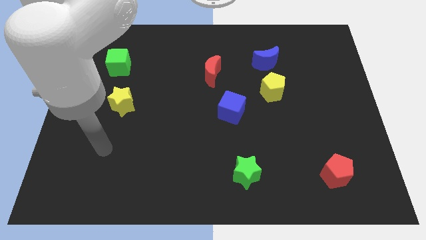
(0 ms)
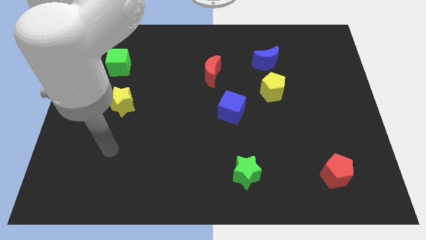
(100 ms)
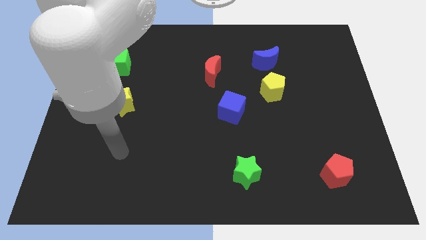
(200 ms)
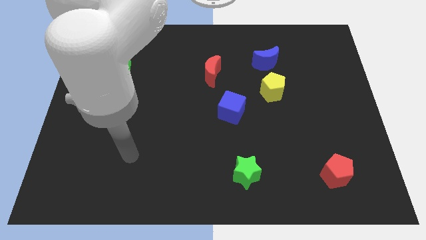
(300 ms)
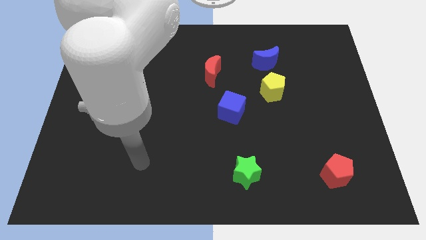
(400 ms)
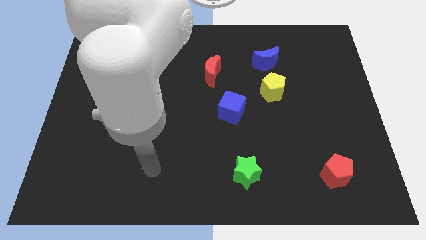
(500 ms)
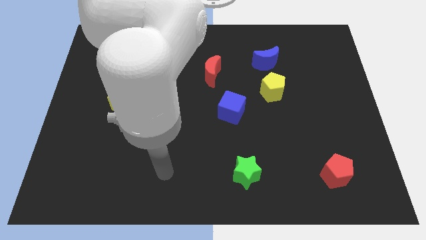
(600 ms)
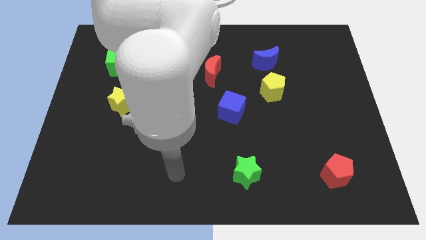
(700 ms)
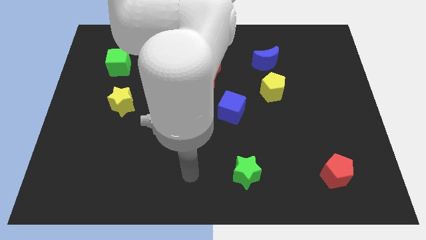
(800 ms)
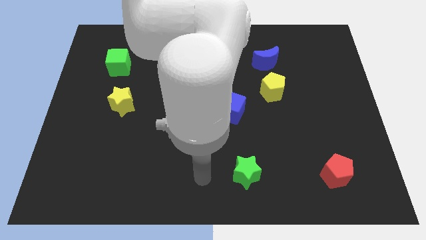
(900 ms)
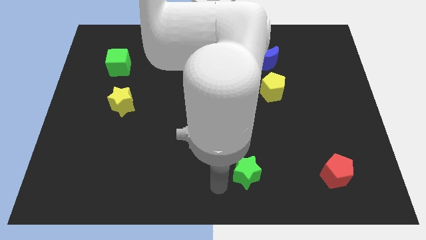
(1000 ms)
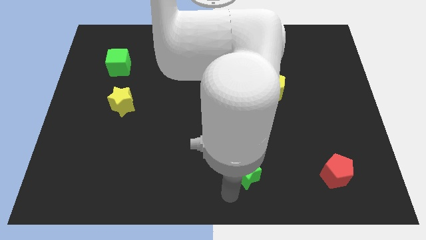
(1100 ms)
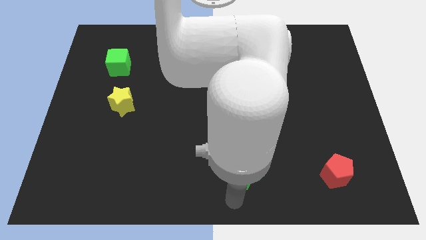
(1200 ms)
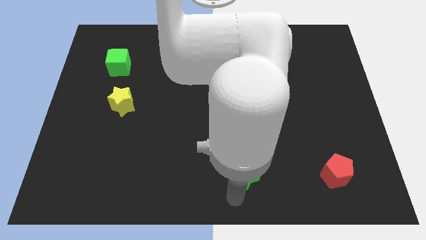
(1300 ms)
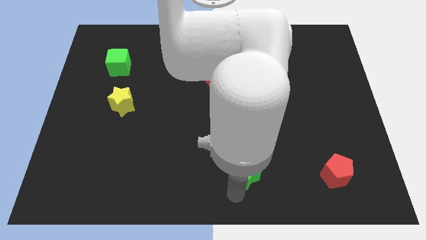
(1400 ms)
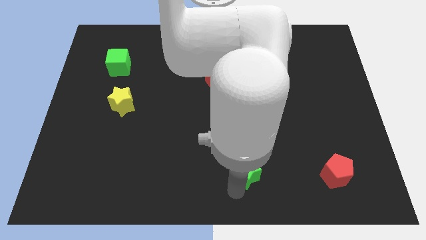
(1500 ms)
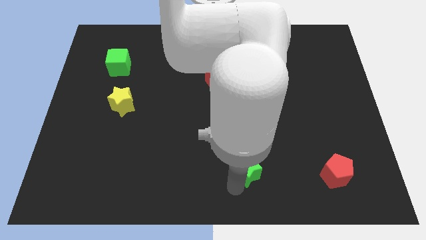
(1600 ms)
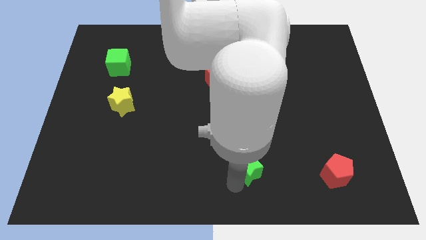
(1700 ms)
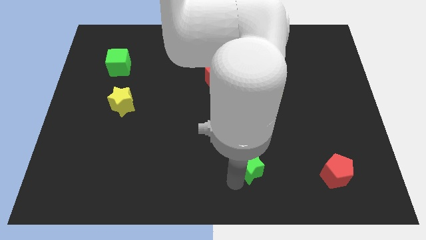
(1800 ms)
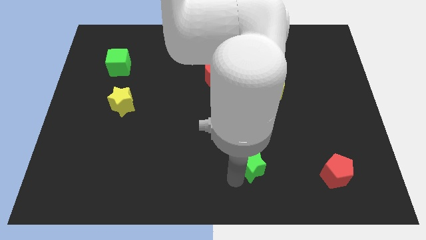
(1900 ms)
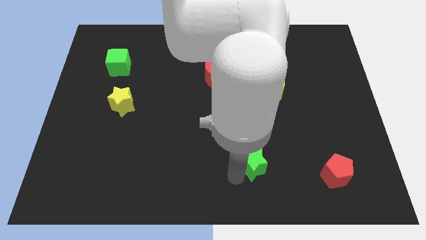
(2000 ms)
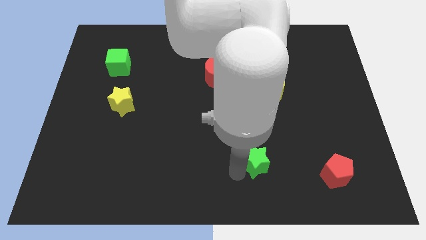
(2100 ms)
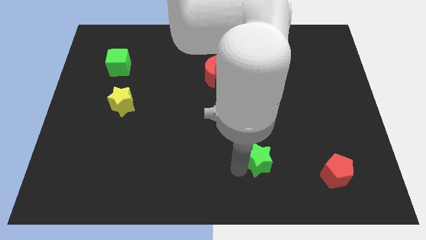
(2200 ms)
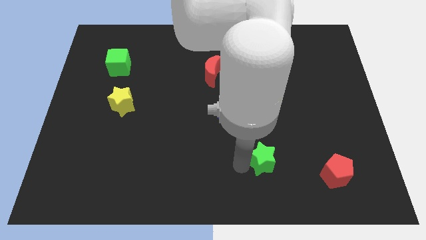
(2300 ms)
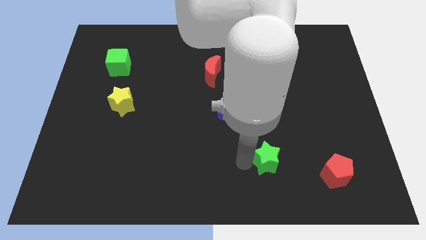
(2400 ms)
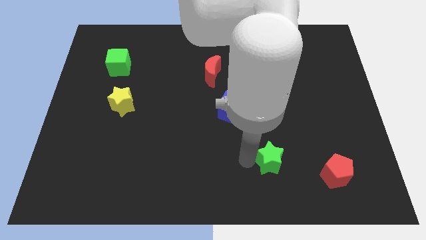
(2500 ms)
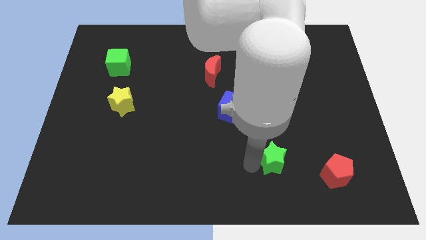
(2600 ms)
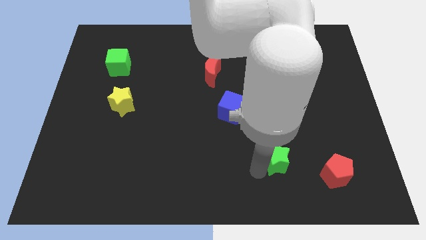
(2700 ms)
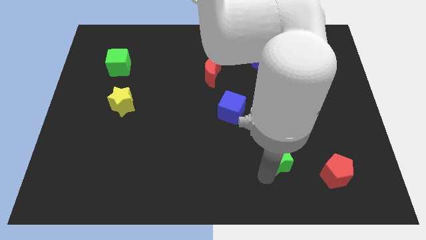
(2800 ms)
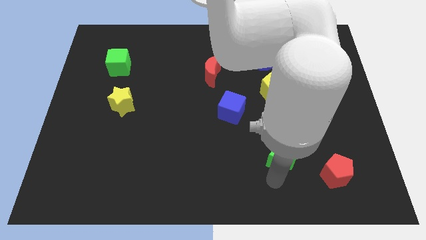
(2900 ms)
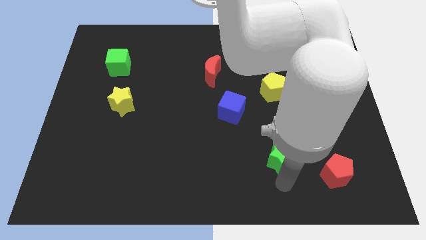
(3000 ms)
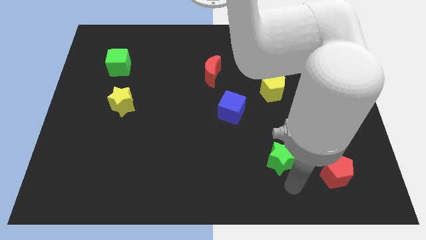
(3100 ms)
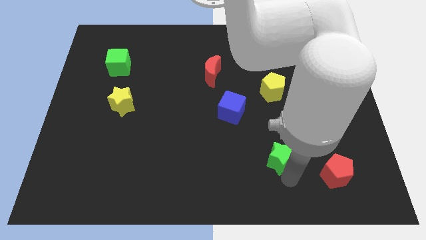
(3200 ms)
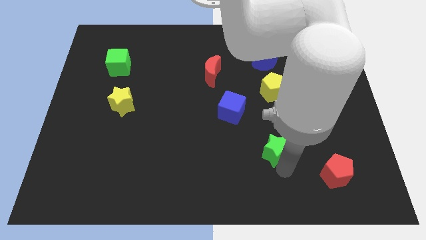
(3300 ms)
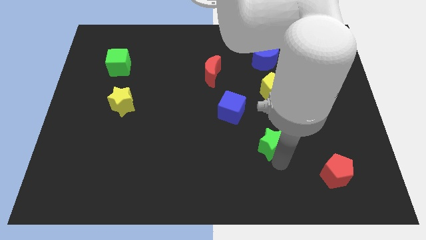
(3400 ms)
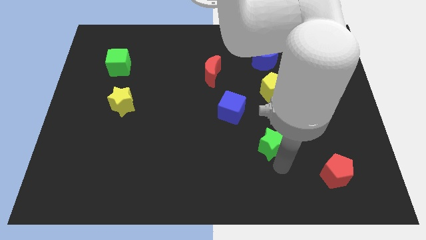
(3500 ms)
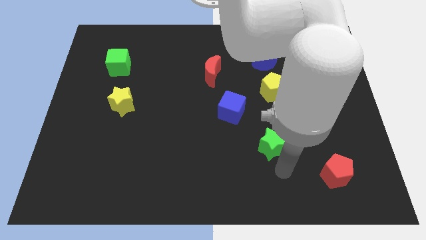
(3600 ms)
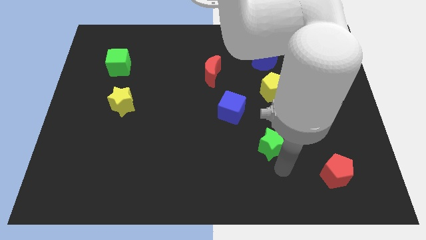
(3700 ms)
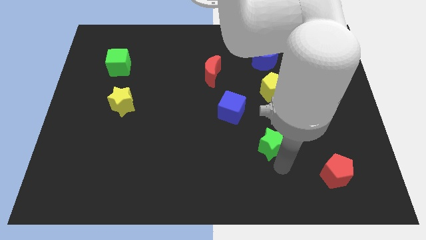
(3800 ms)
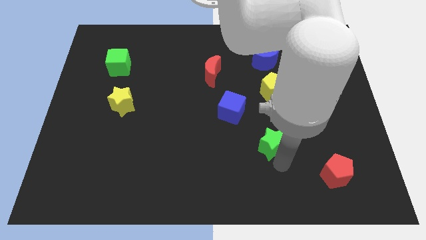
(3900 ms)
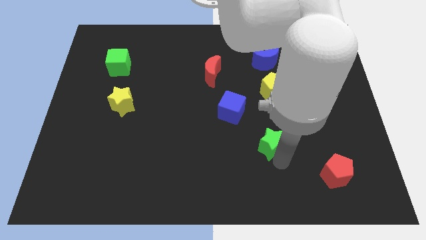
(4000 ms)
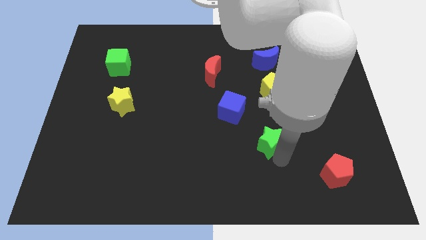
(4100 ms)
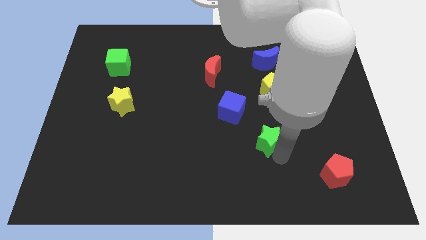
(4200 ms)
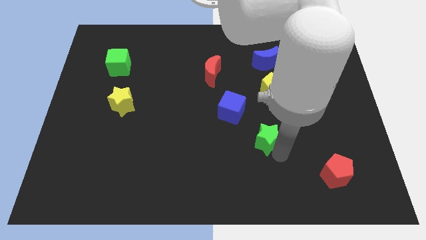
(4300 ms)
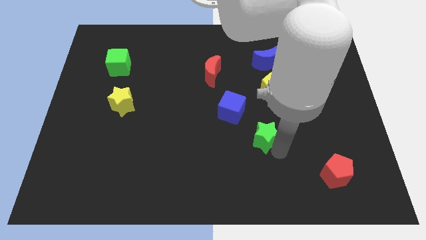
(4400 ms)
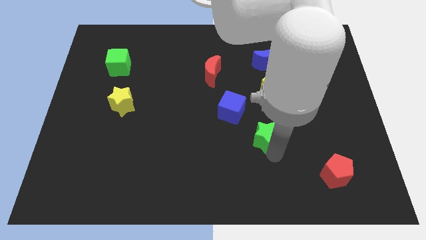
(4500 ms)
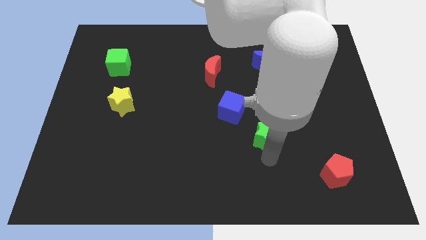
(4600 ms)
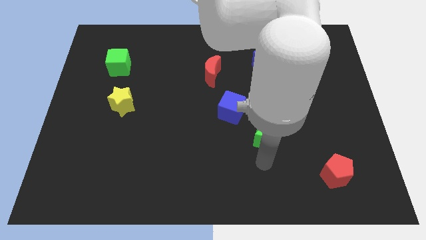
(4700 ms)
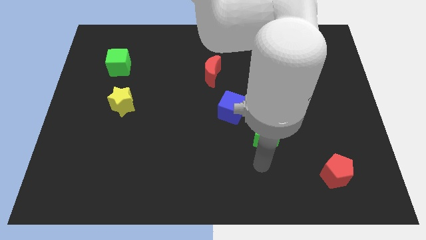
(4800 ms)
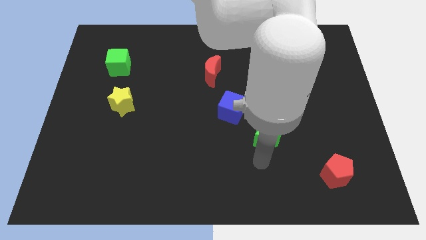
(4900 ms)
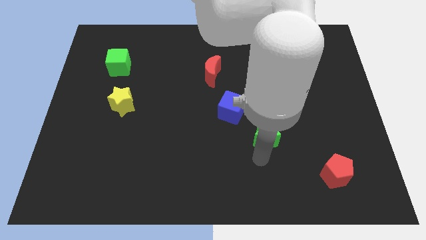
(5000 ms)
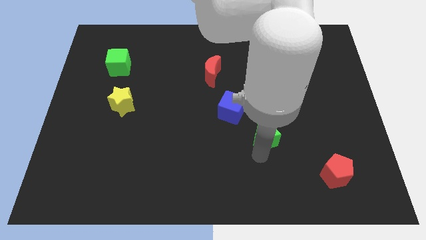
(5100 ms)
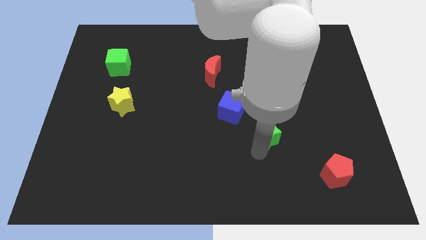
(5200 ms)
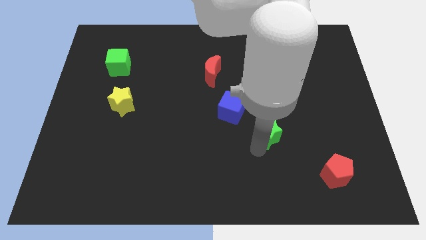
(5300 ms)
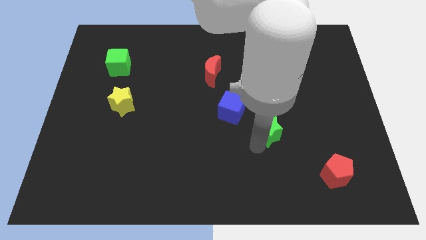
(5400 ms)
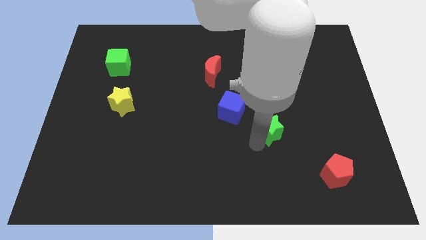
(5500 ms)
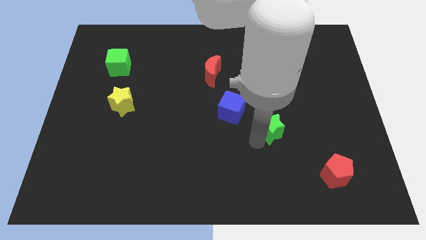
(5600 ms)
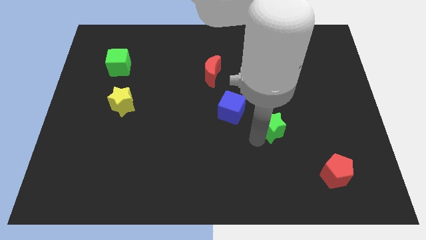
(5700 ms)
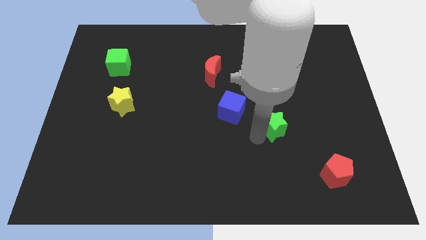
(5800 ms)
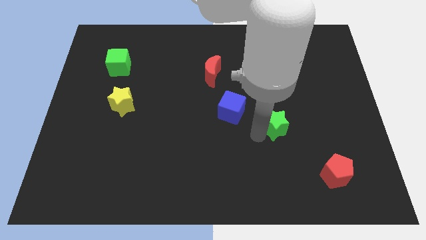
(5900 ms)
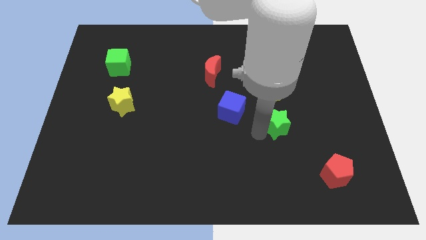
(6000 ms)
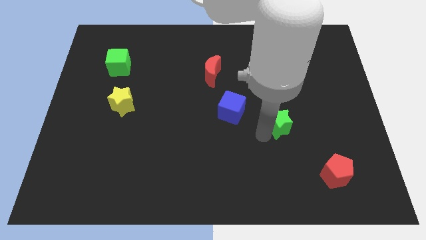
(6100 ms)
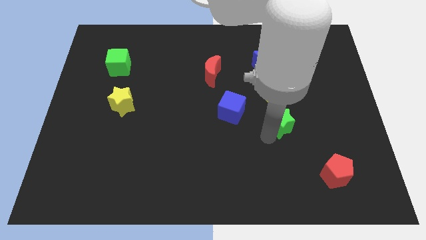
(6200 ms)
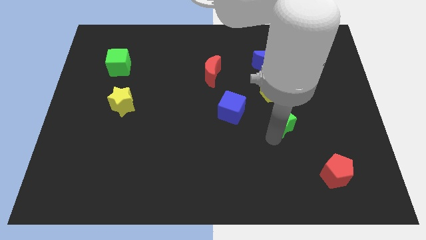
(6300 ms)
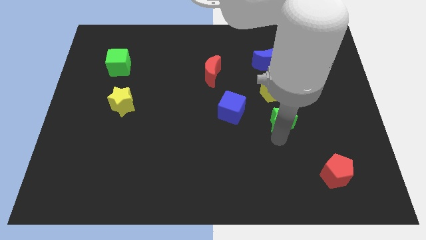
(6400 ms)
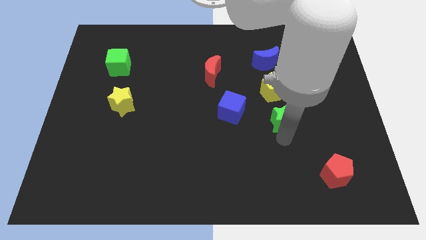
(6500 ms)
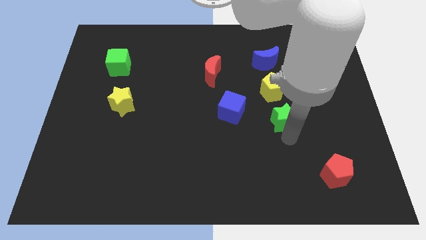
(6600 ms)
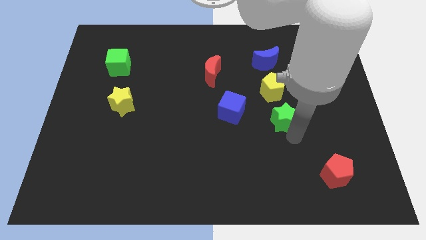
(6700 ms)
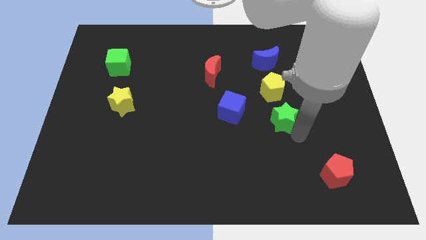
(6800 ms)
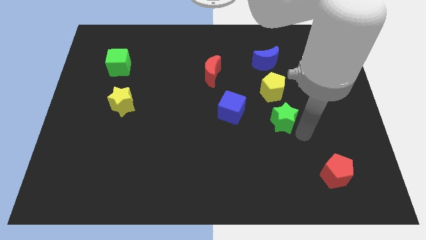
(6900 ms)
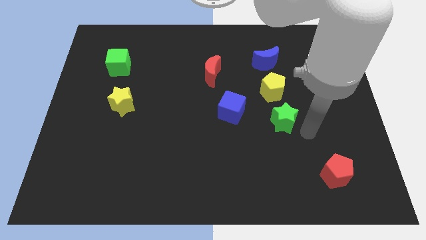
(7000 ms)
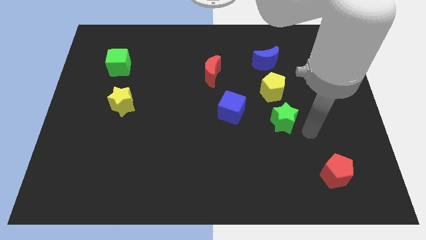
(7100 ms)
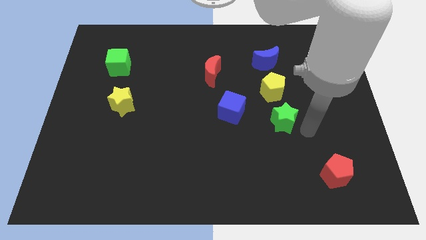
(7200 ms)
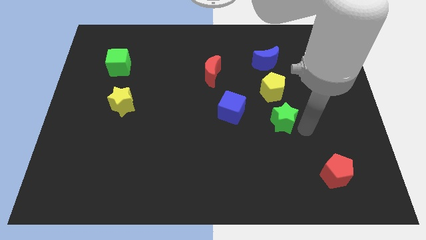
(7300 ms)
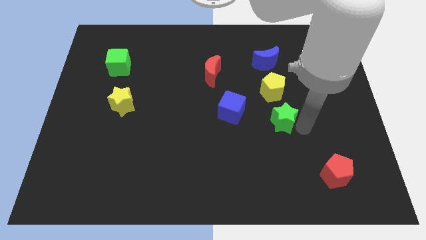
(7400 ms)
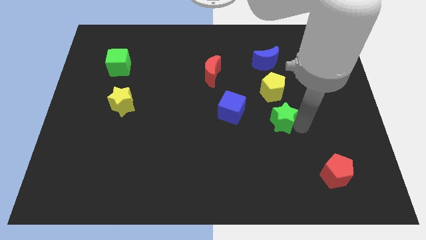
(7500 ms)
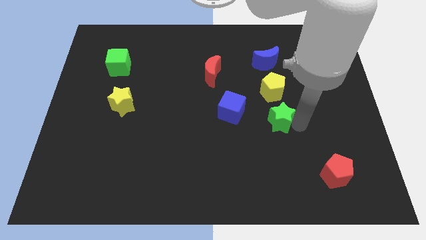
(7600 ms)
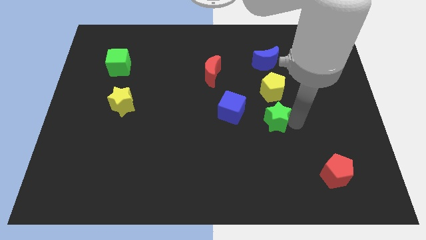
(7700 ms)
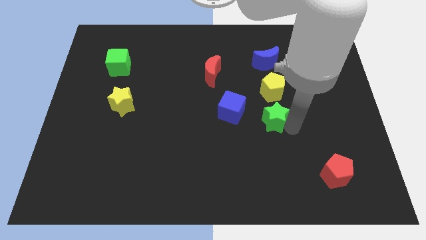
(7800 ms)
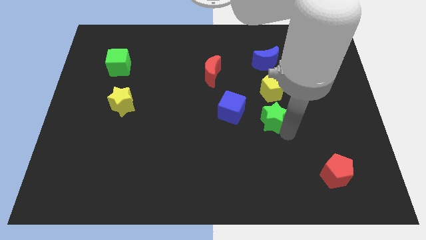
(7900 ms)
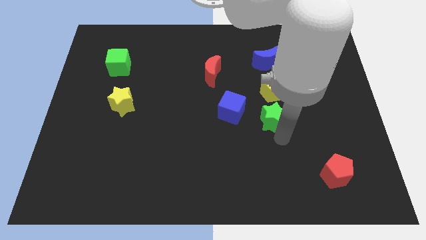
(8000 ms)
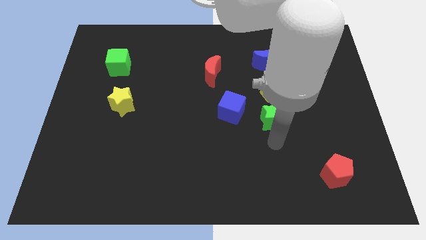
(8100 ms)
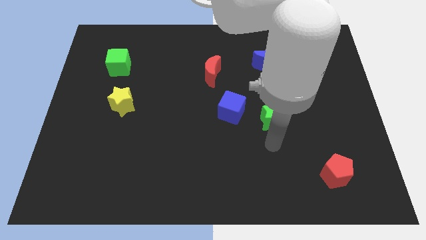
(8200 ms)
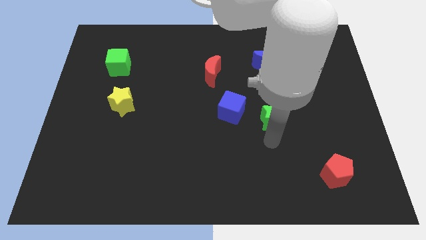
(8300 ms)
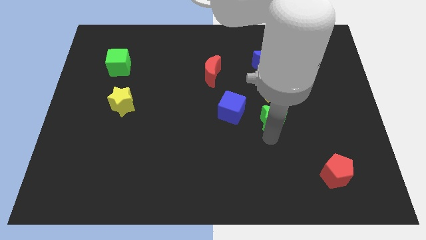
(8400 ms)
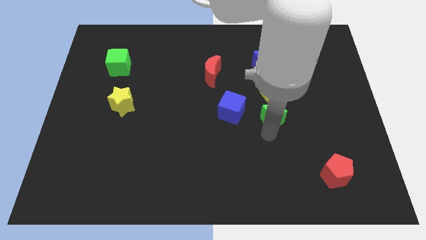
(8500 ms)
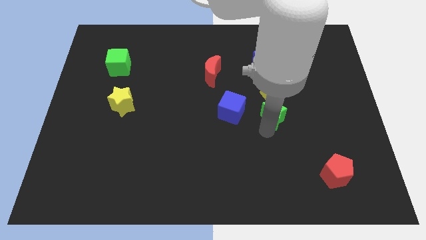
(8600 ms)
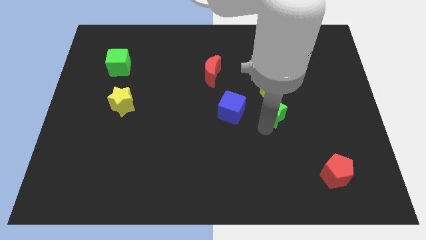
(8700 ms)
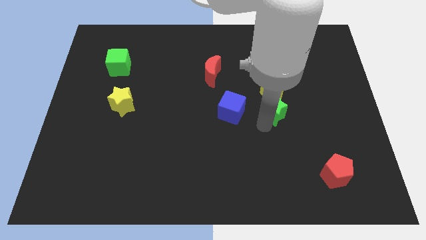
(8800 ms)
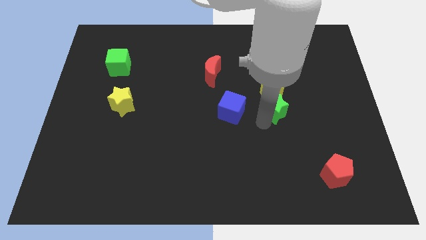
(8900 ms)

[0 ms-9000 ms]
push the green star to the bottom side of the blue moon
